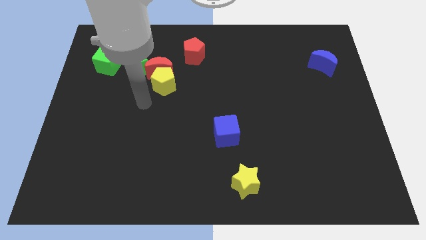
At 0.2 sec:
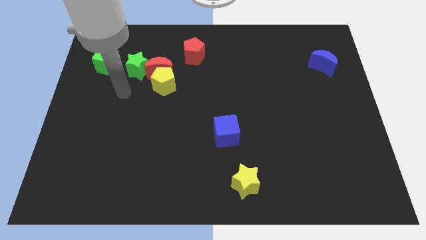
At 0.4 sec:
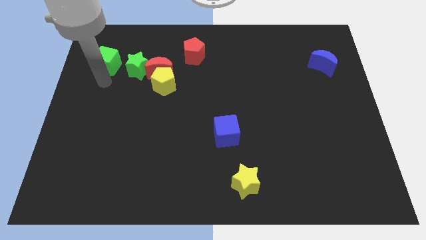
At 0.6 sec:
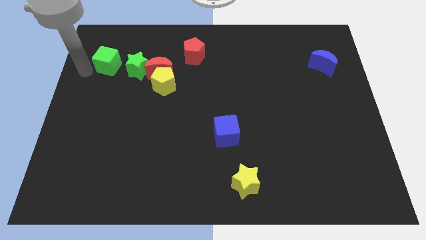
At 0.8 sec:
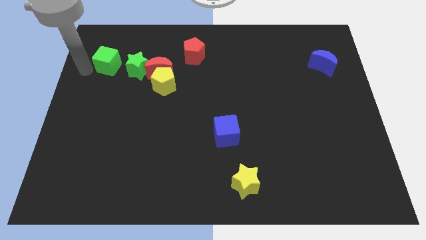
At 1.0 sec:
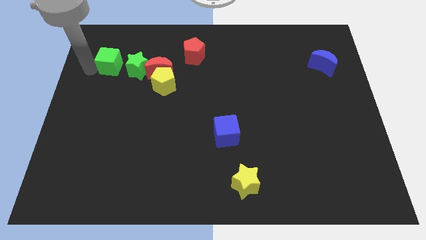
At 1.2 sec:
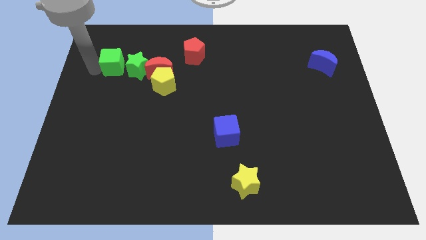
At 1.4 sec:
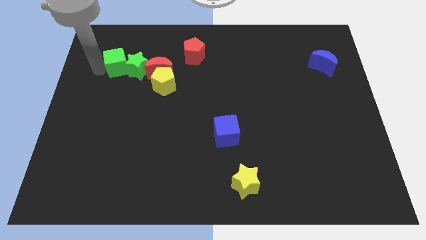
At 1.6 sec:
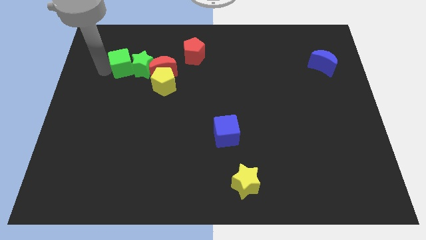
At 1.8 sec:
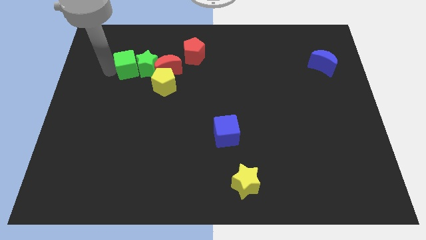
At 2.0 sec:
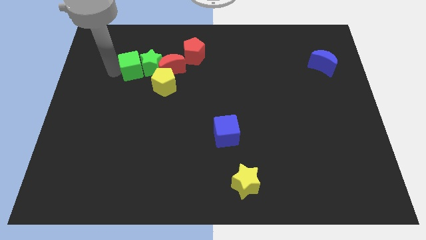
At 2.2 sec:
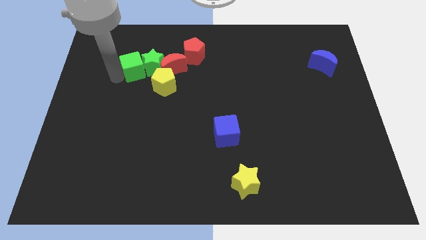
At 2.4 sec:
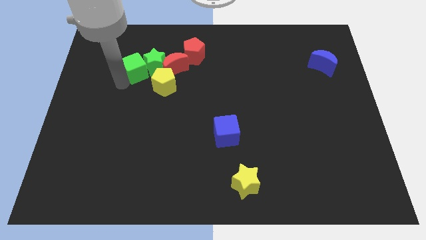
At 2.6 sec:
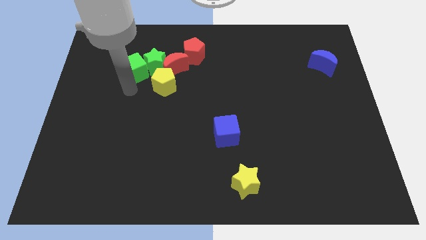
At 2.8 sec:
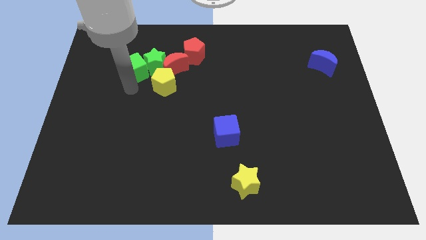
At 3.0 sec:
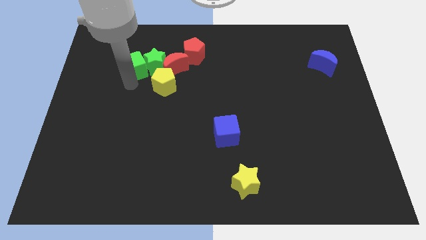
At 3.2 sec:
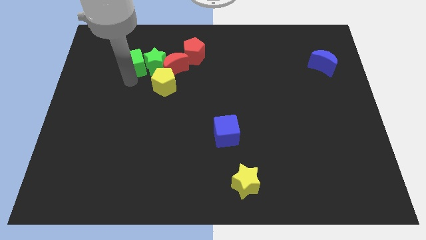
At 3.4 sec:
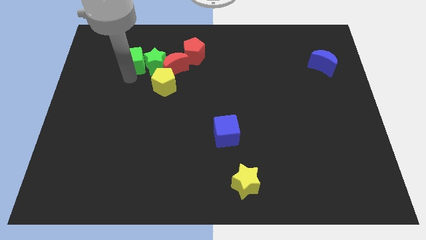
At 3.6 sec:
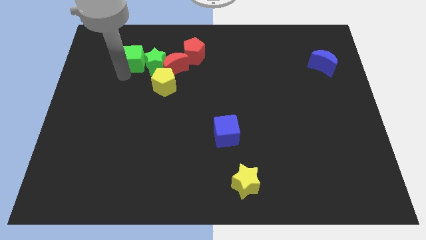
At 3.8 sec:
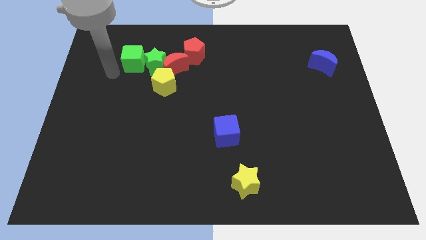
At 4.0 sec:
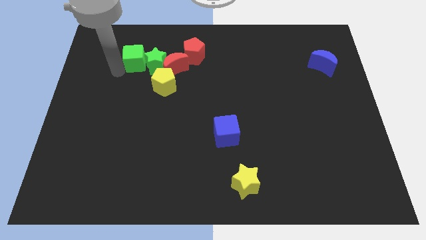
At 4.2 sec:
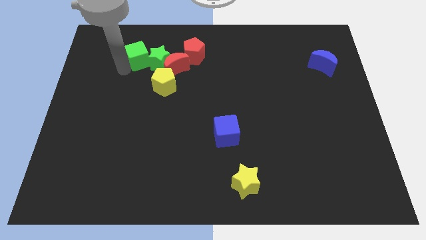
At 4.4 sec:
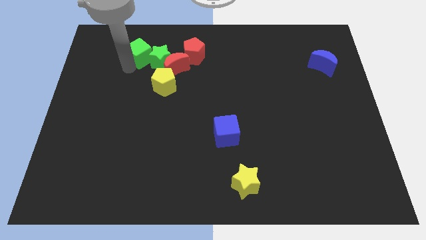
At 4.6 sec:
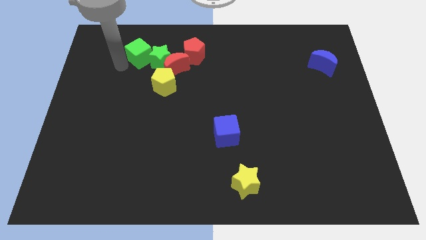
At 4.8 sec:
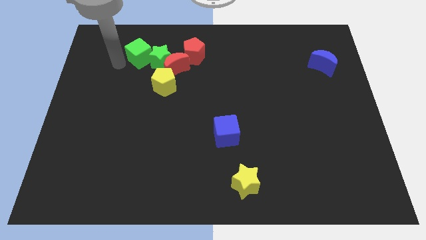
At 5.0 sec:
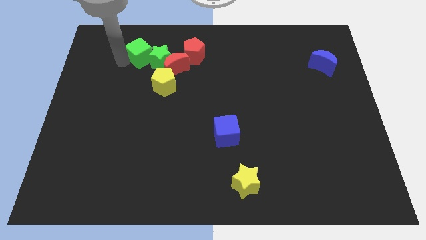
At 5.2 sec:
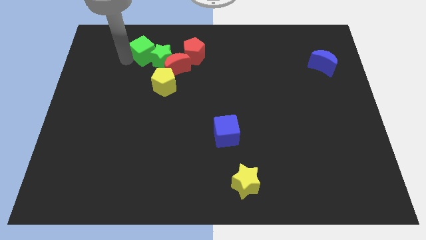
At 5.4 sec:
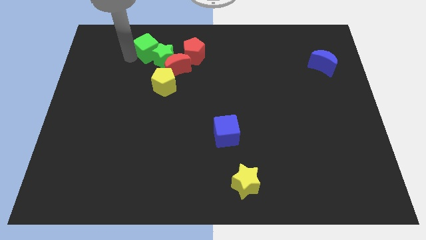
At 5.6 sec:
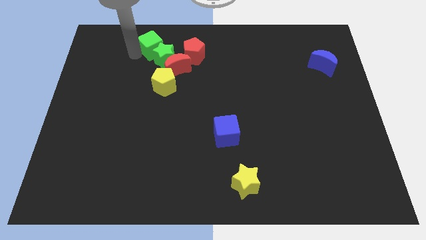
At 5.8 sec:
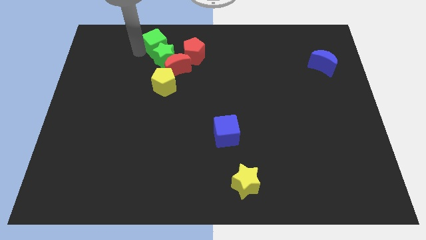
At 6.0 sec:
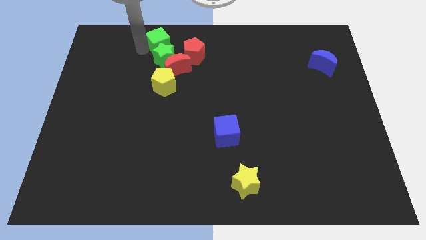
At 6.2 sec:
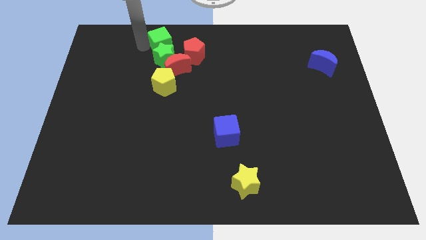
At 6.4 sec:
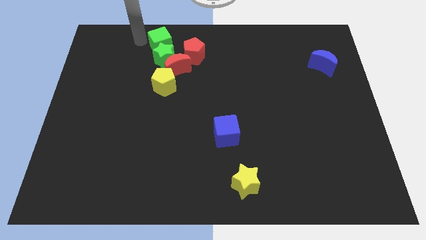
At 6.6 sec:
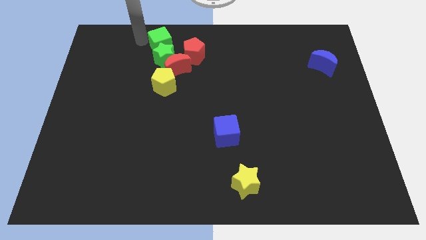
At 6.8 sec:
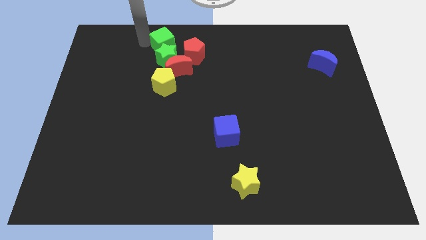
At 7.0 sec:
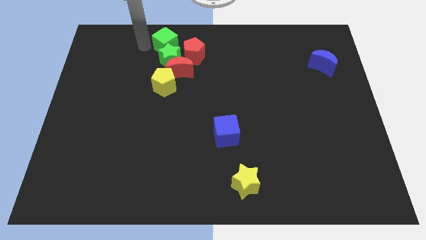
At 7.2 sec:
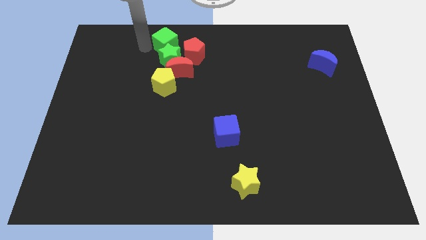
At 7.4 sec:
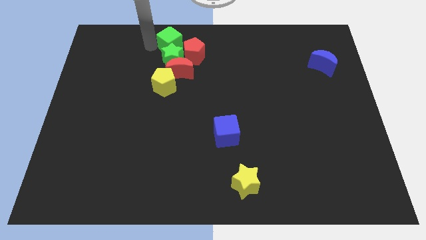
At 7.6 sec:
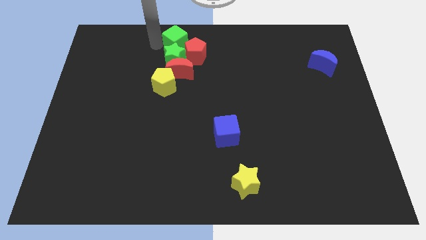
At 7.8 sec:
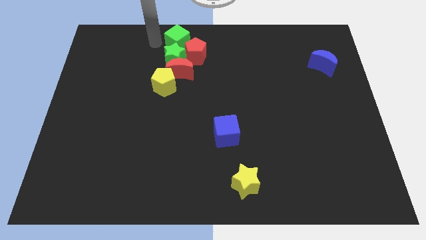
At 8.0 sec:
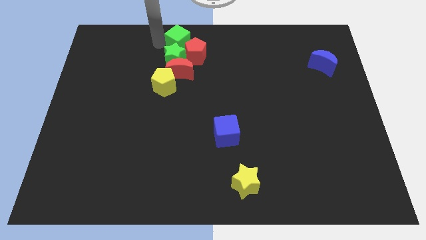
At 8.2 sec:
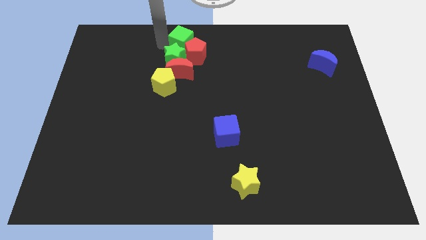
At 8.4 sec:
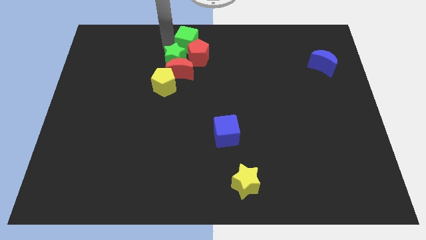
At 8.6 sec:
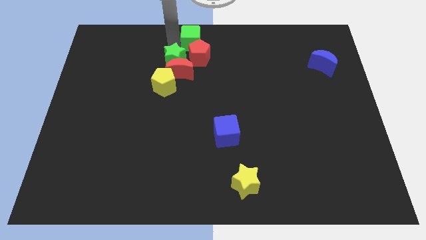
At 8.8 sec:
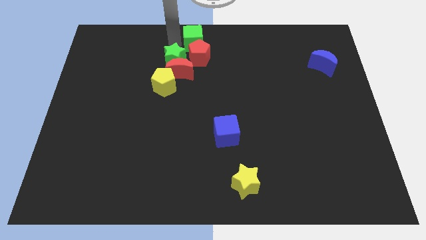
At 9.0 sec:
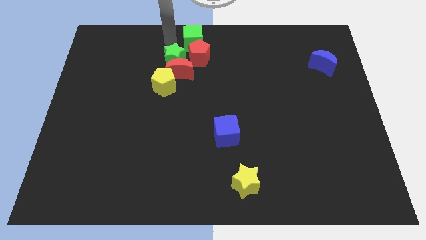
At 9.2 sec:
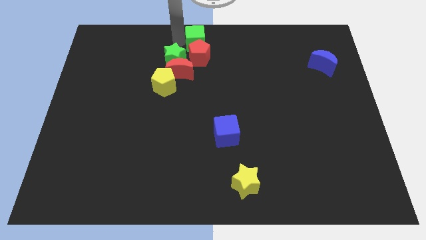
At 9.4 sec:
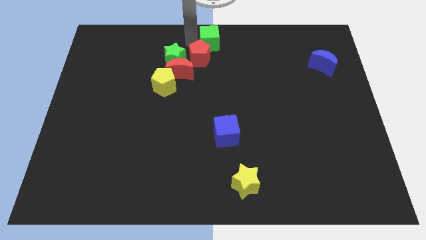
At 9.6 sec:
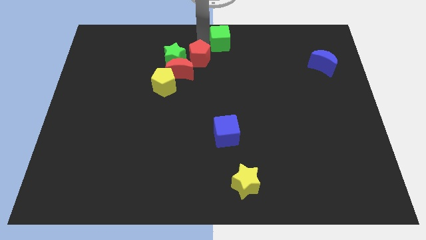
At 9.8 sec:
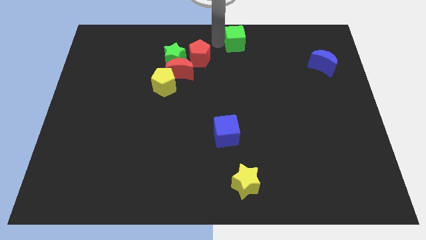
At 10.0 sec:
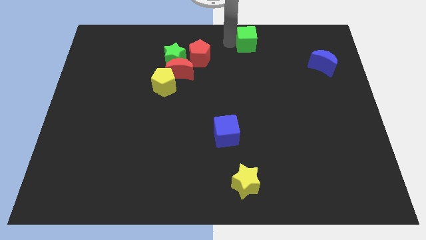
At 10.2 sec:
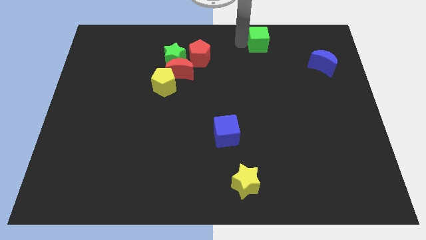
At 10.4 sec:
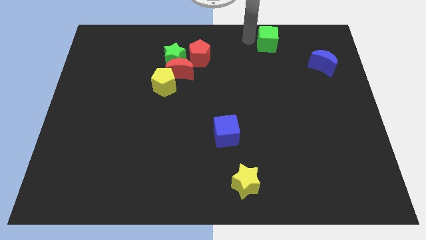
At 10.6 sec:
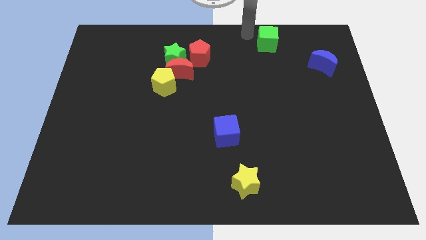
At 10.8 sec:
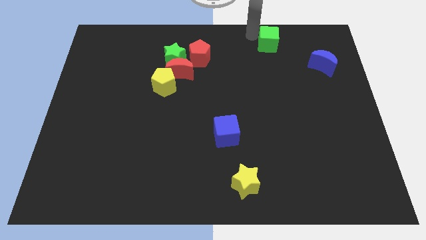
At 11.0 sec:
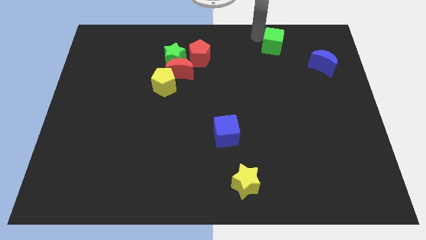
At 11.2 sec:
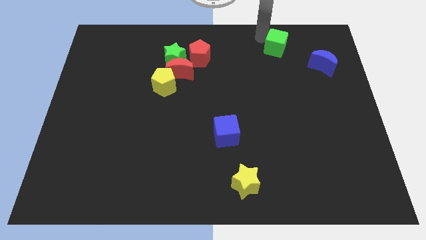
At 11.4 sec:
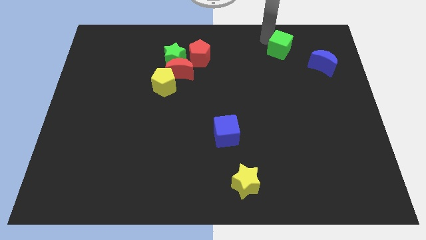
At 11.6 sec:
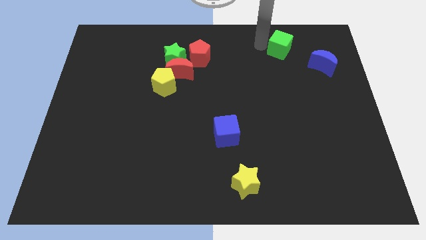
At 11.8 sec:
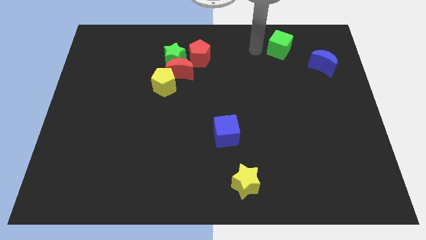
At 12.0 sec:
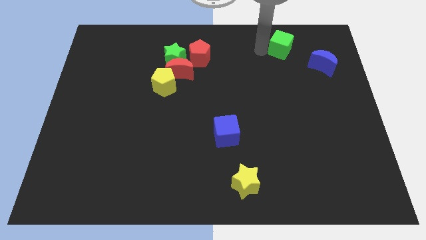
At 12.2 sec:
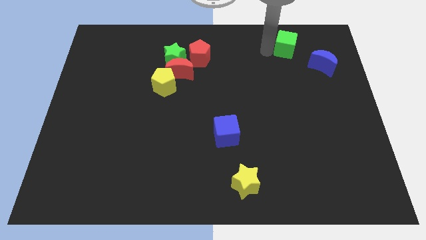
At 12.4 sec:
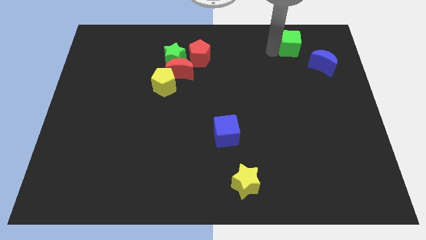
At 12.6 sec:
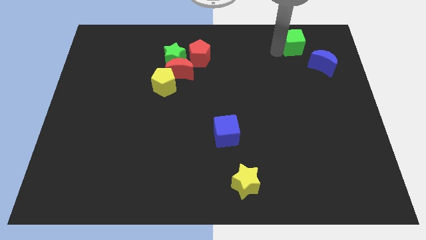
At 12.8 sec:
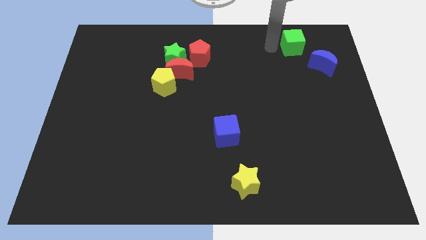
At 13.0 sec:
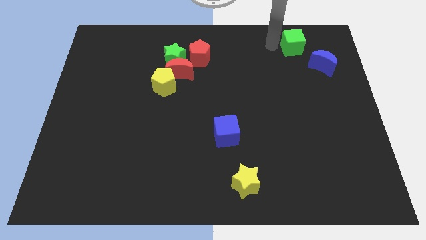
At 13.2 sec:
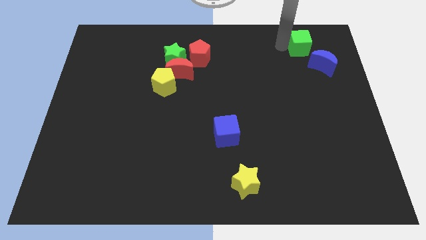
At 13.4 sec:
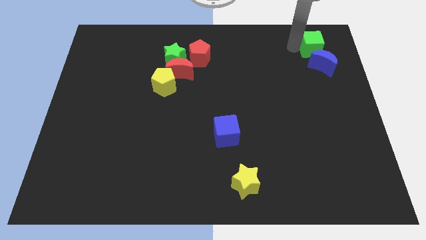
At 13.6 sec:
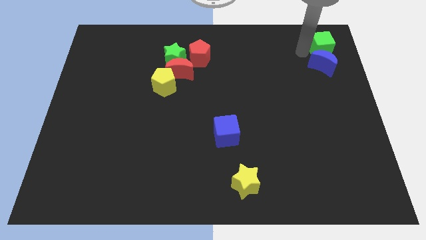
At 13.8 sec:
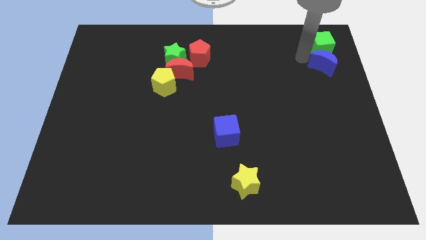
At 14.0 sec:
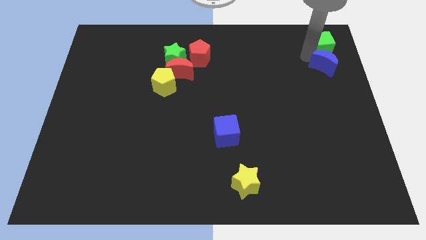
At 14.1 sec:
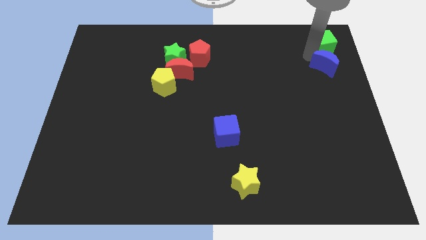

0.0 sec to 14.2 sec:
push the green cube to the upper right corner
